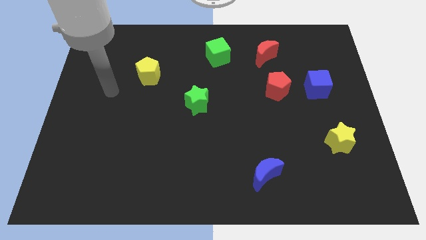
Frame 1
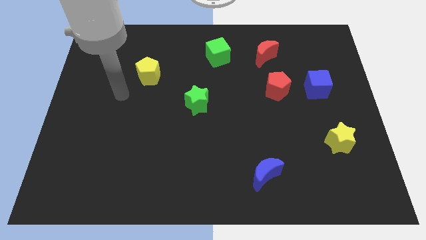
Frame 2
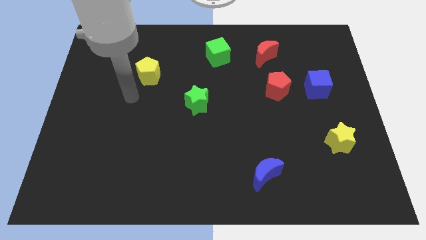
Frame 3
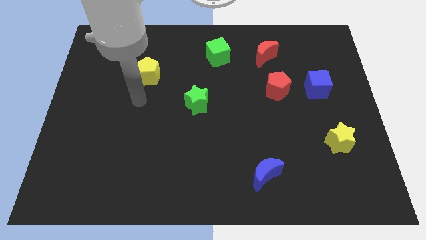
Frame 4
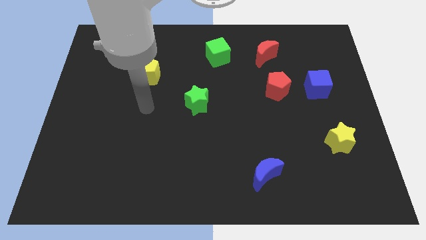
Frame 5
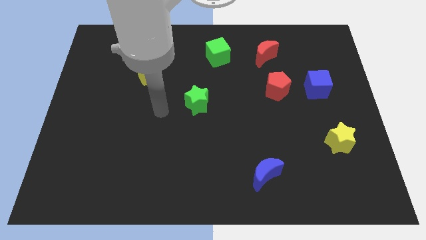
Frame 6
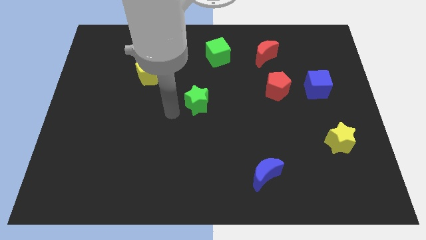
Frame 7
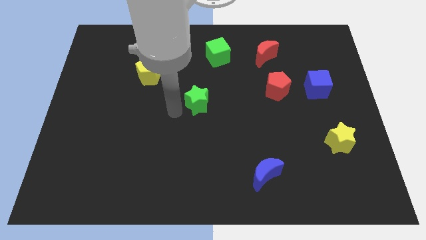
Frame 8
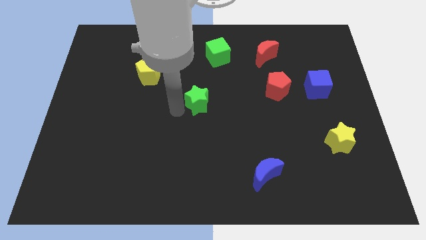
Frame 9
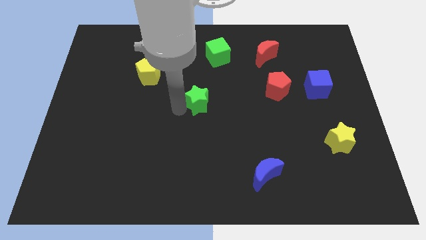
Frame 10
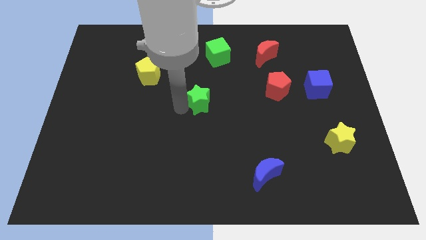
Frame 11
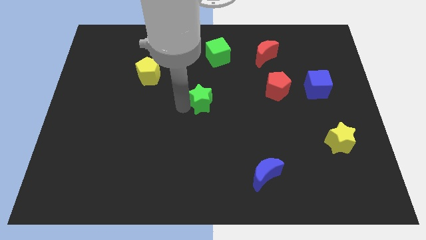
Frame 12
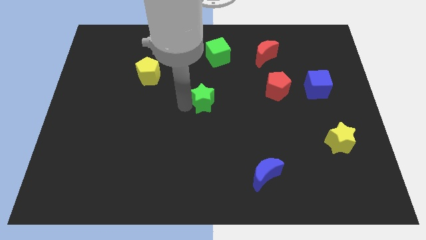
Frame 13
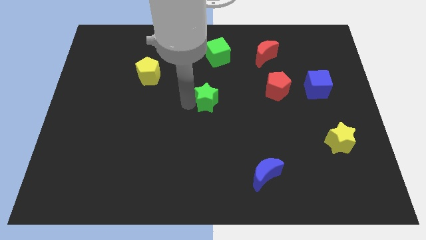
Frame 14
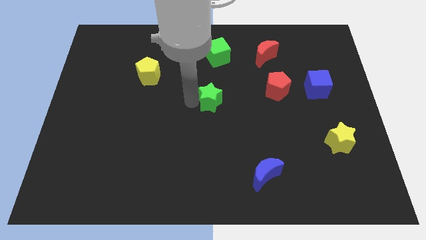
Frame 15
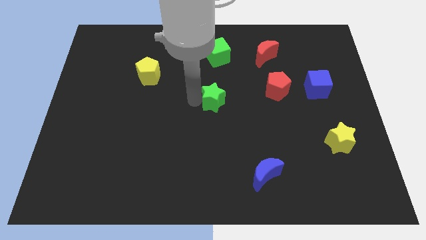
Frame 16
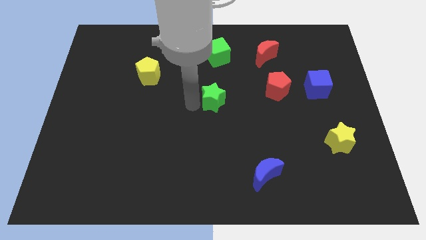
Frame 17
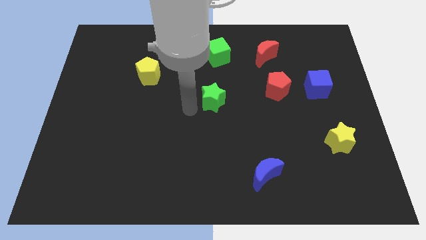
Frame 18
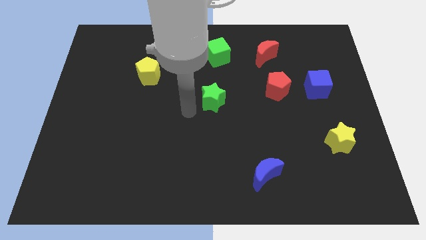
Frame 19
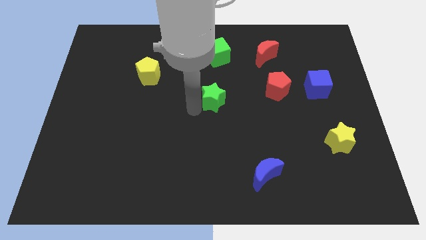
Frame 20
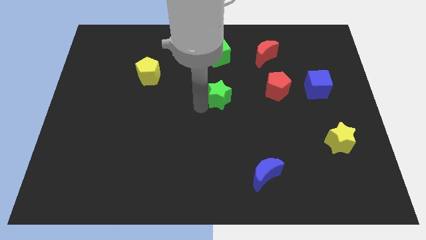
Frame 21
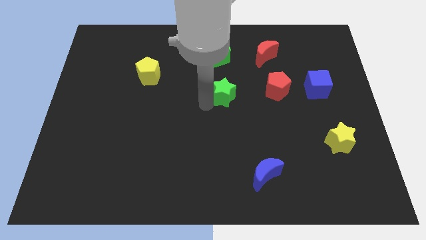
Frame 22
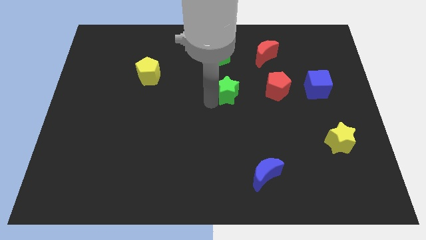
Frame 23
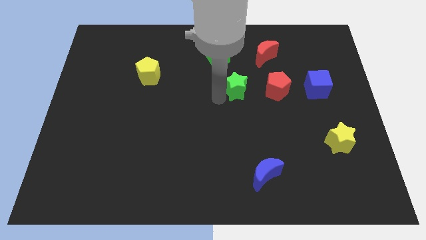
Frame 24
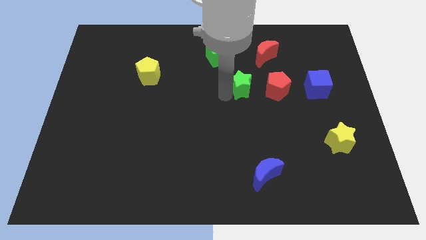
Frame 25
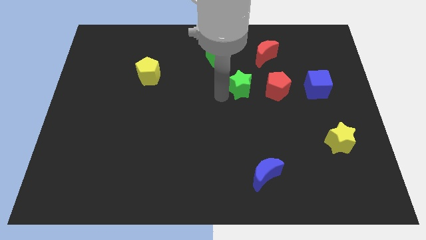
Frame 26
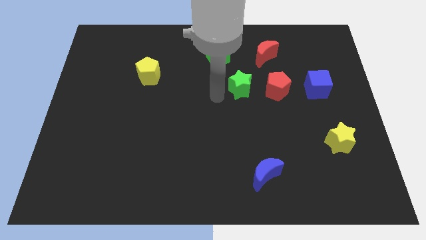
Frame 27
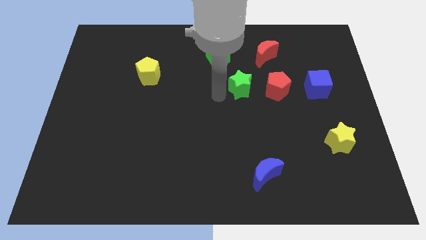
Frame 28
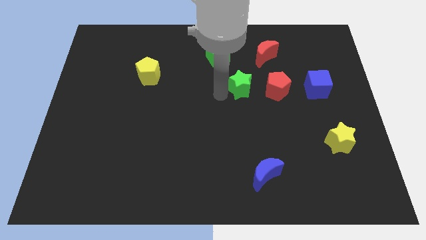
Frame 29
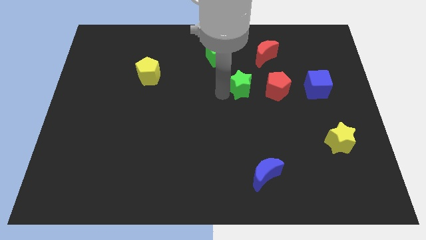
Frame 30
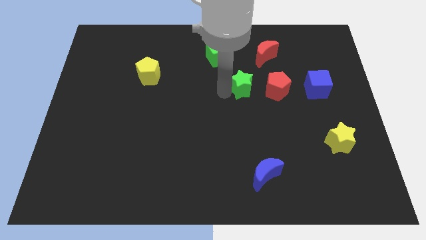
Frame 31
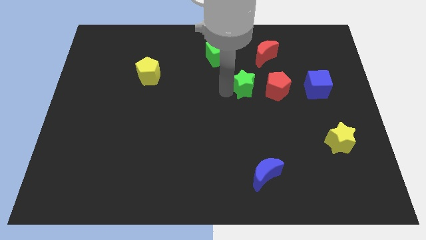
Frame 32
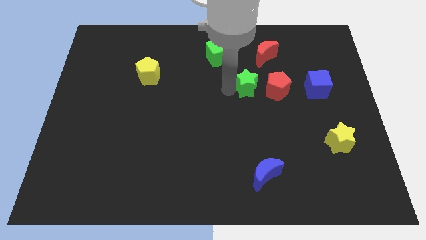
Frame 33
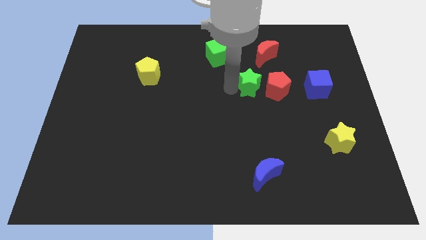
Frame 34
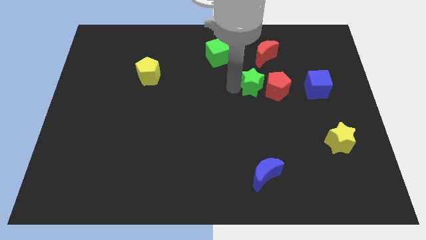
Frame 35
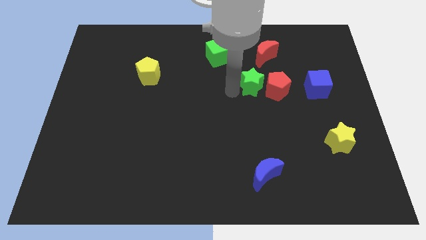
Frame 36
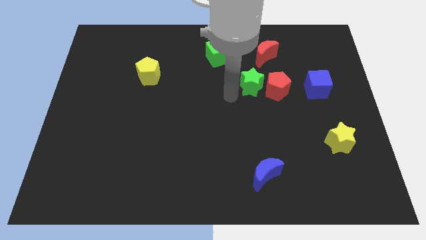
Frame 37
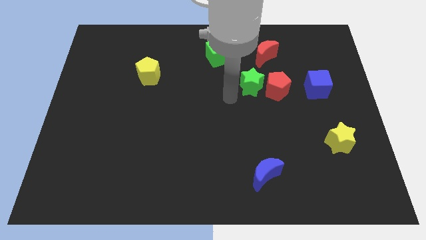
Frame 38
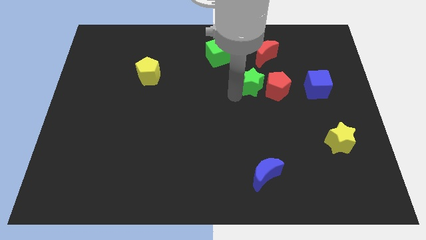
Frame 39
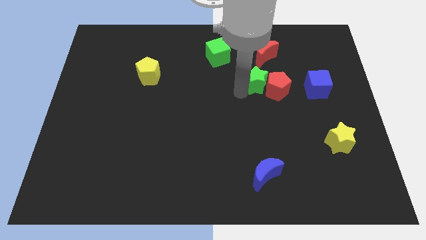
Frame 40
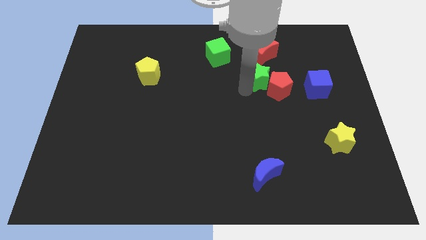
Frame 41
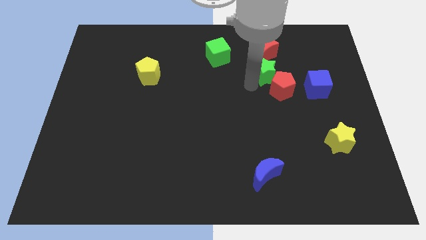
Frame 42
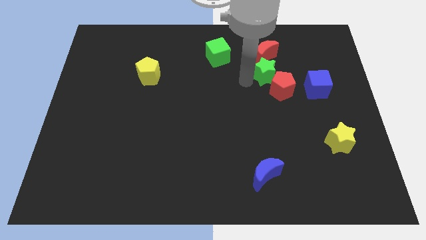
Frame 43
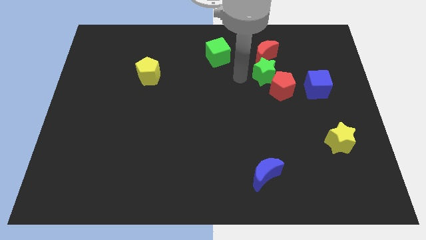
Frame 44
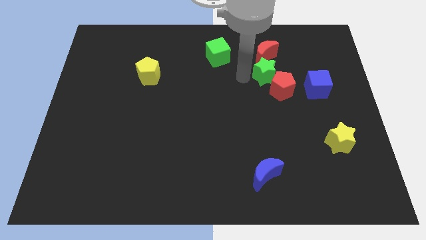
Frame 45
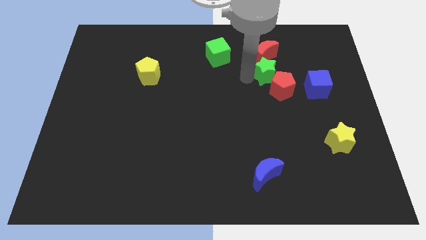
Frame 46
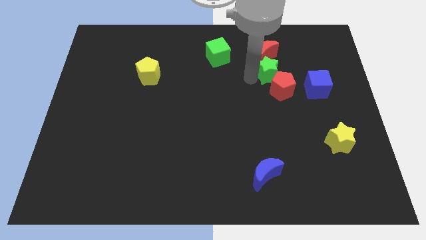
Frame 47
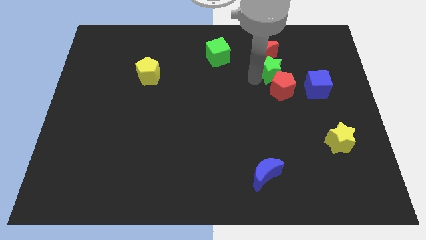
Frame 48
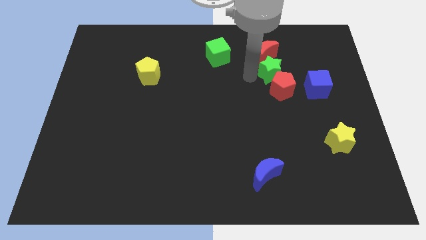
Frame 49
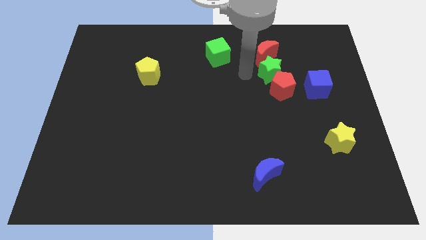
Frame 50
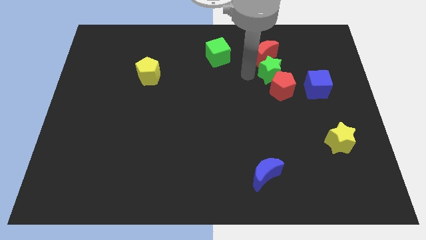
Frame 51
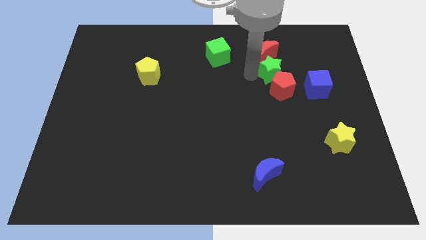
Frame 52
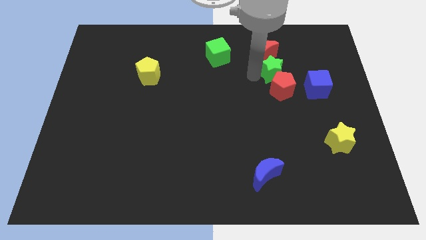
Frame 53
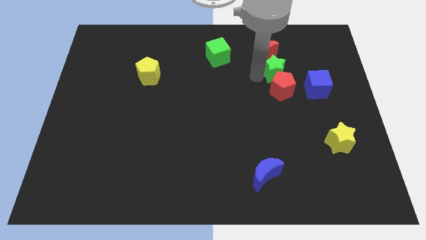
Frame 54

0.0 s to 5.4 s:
put the green star diagonally up and to the right of the red pentagon

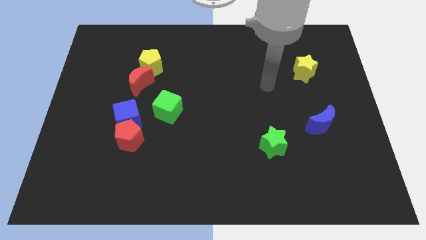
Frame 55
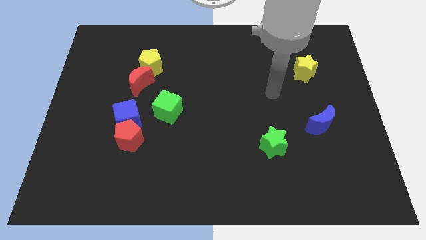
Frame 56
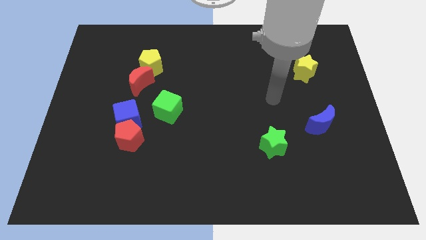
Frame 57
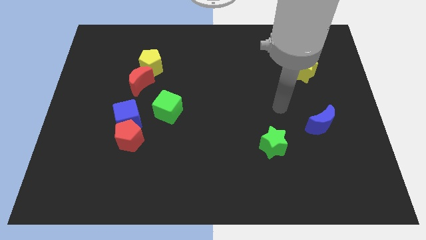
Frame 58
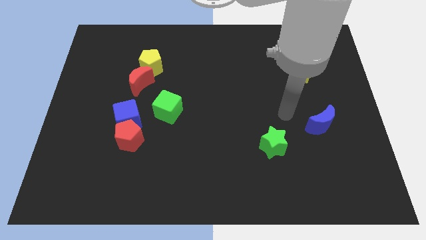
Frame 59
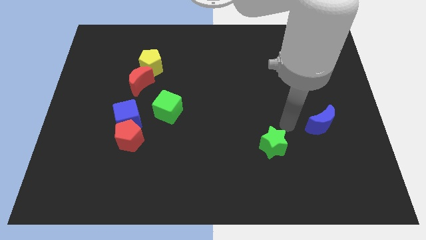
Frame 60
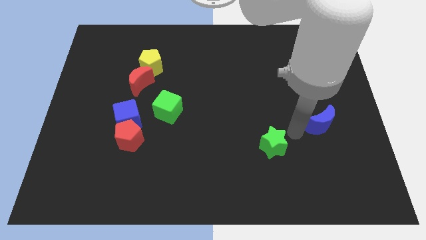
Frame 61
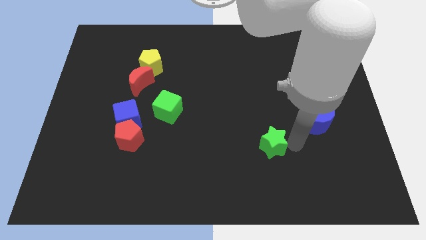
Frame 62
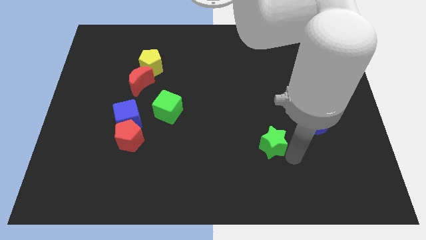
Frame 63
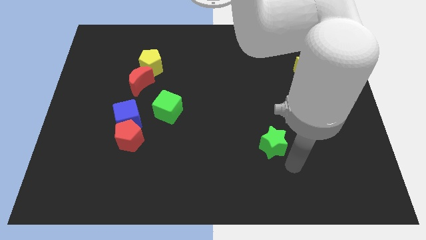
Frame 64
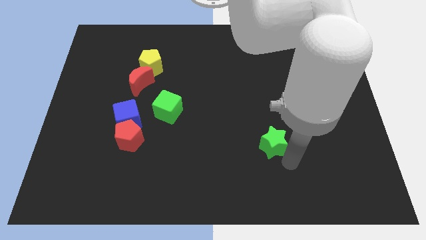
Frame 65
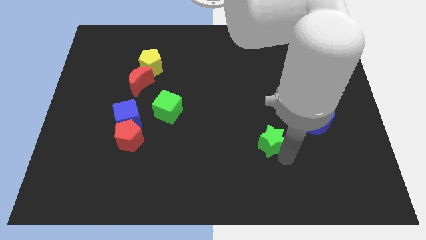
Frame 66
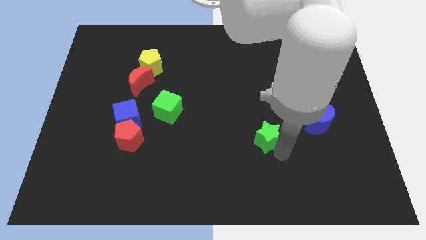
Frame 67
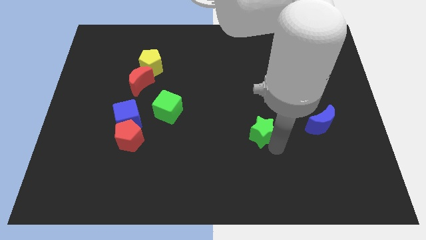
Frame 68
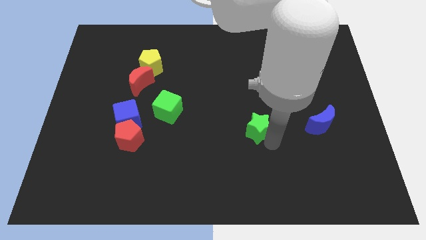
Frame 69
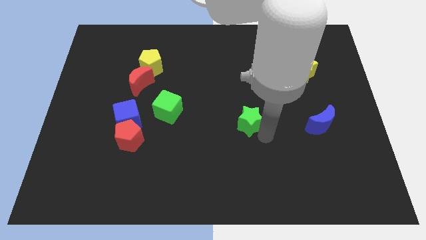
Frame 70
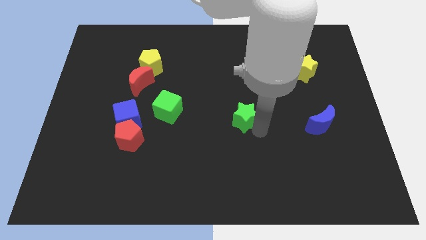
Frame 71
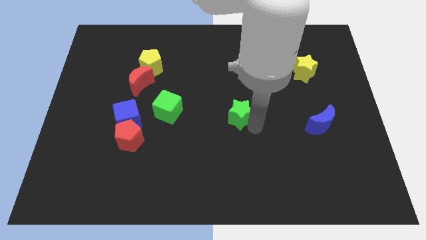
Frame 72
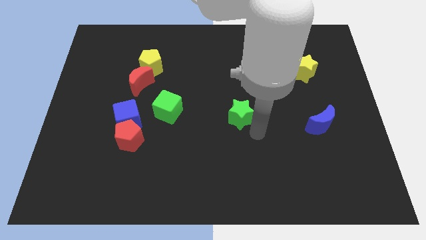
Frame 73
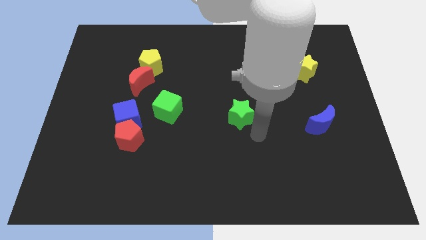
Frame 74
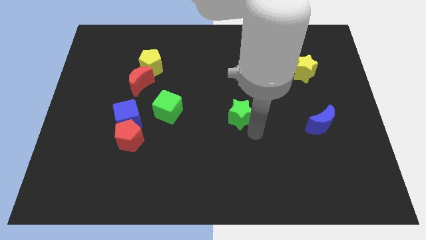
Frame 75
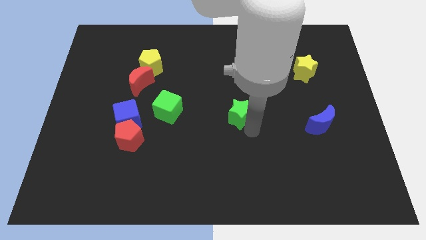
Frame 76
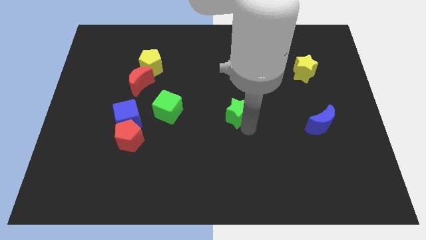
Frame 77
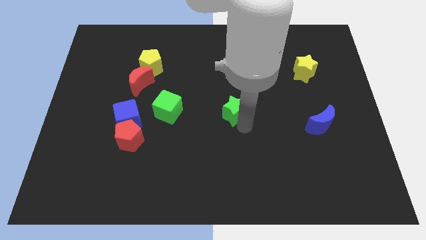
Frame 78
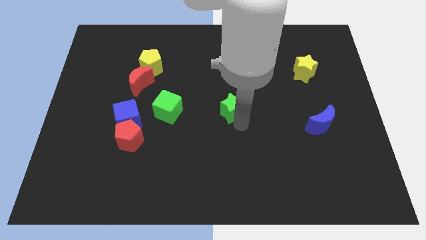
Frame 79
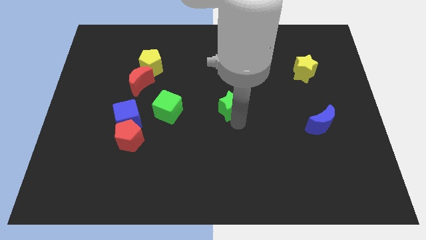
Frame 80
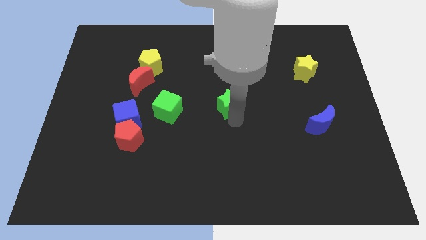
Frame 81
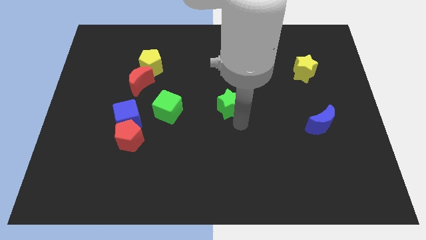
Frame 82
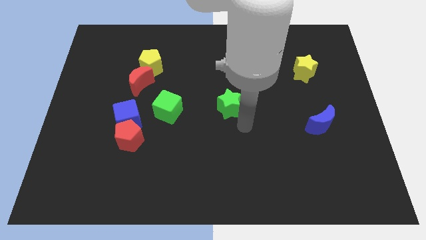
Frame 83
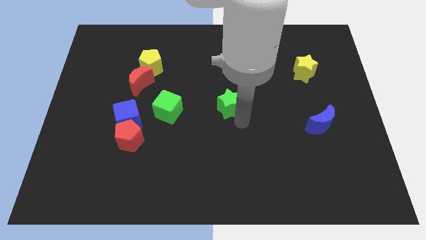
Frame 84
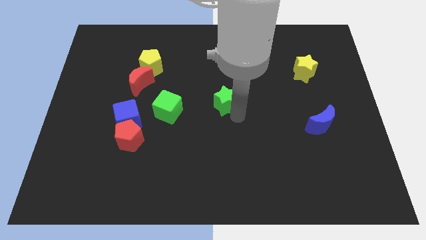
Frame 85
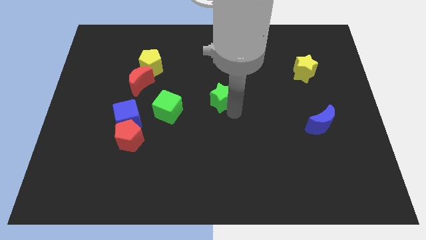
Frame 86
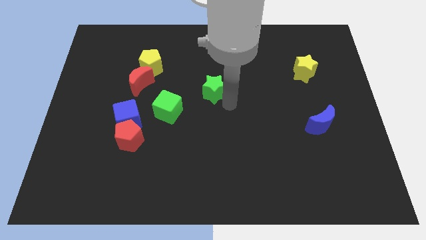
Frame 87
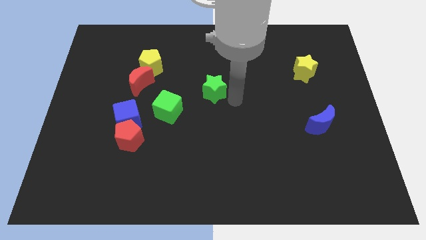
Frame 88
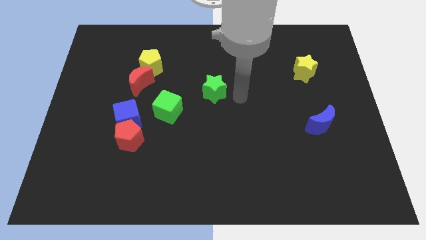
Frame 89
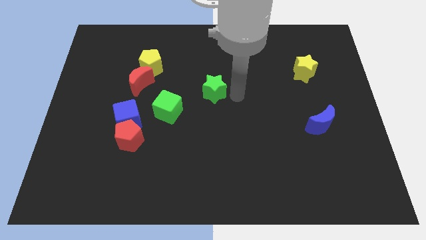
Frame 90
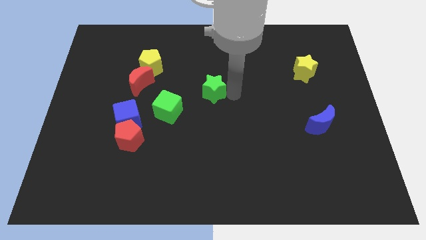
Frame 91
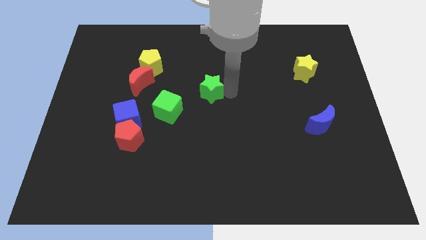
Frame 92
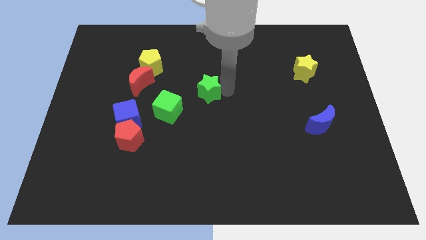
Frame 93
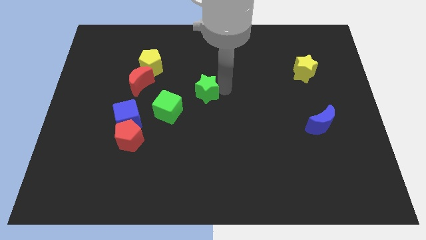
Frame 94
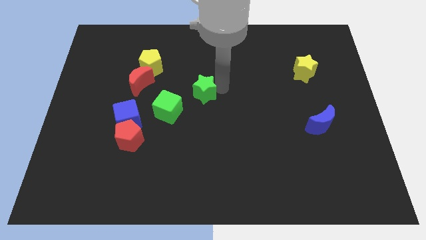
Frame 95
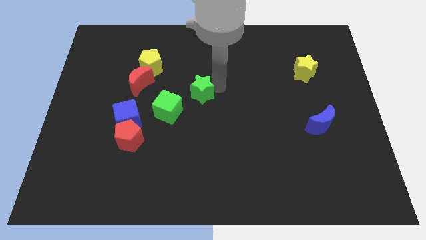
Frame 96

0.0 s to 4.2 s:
push the green star just right of the red moon
